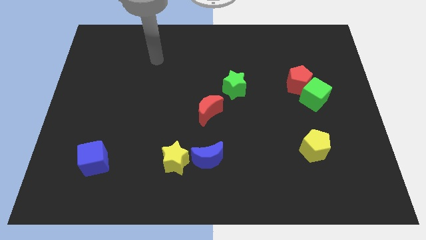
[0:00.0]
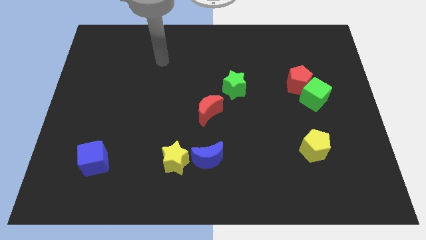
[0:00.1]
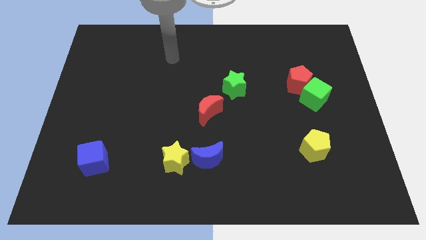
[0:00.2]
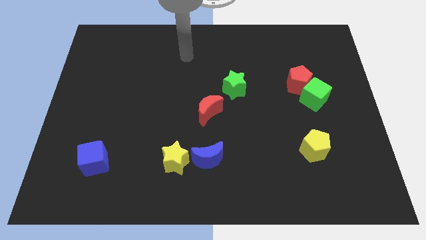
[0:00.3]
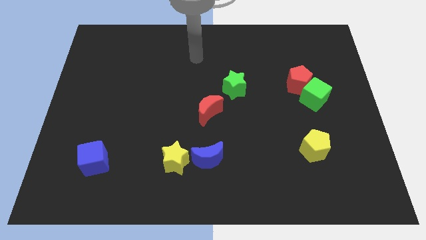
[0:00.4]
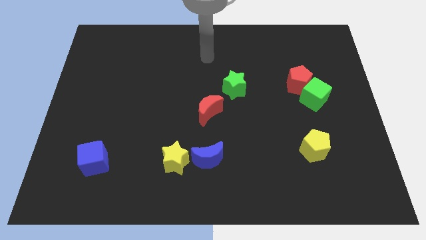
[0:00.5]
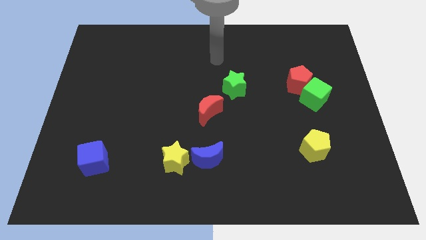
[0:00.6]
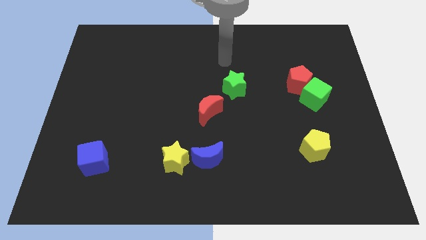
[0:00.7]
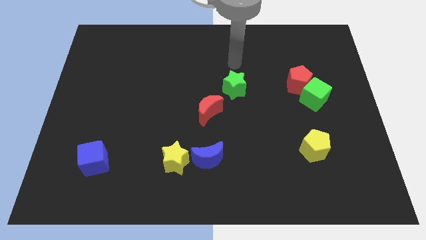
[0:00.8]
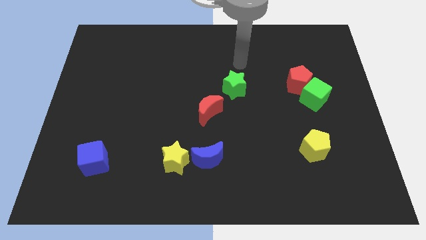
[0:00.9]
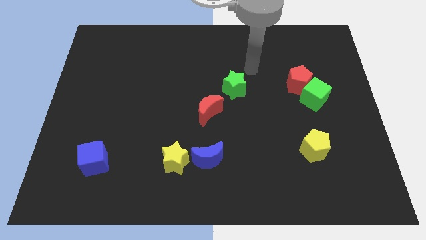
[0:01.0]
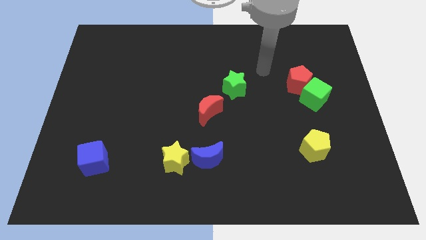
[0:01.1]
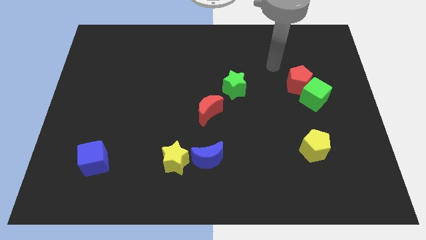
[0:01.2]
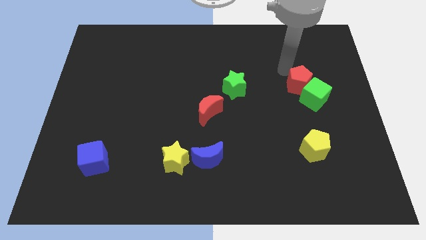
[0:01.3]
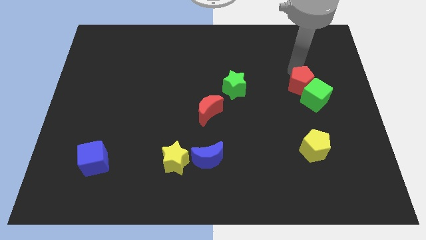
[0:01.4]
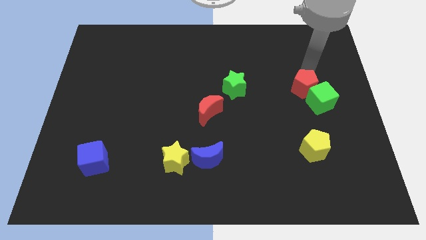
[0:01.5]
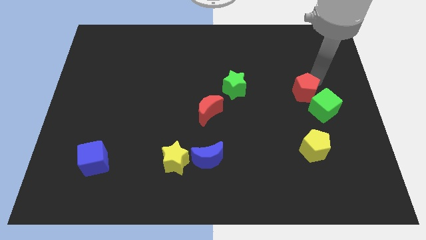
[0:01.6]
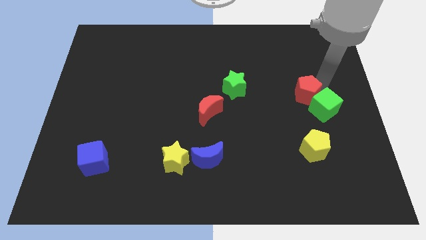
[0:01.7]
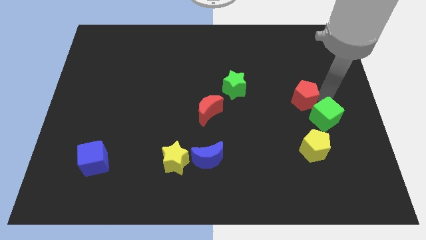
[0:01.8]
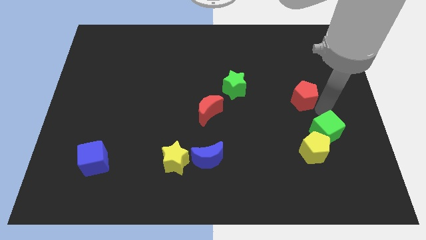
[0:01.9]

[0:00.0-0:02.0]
move the red pentagon away from the green cube

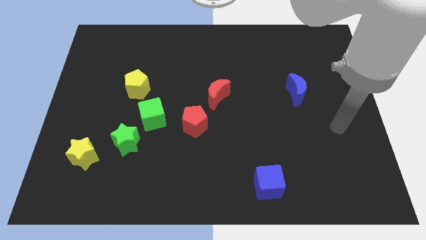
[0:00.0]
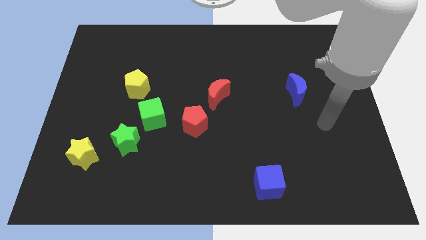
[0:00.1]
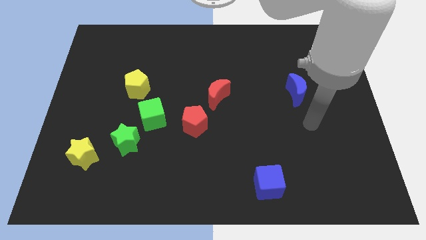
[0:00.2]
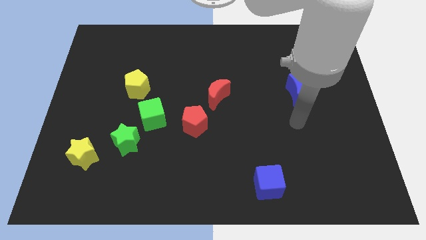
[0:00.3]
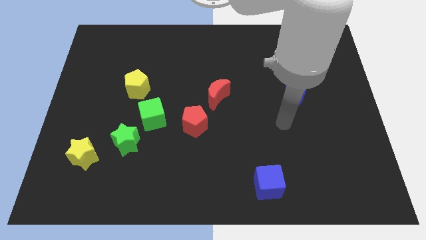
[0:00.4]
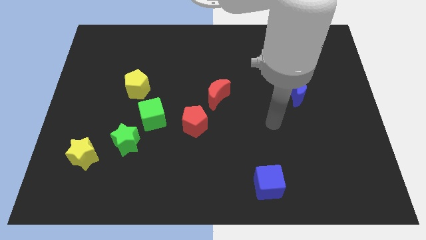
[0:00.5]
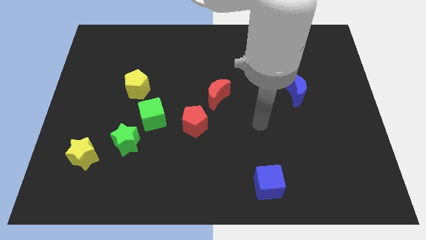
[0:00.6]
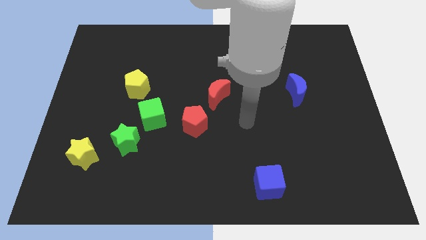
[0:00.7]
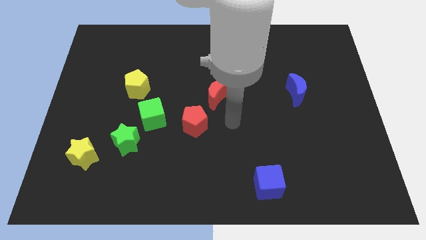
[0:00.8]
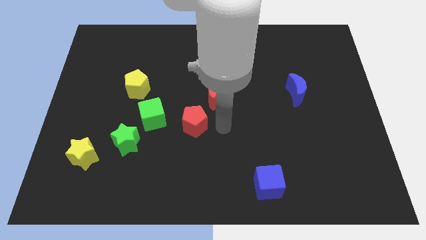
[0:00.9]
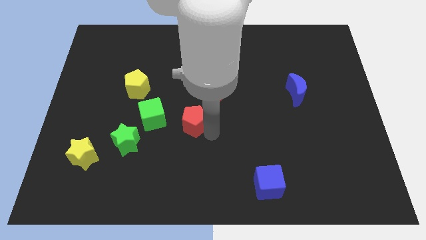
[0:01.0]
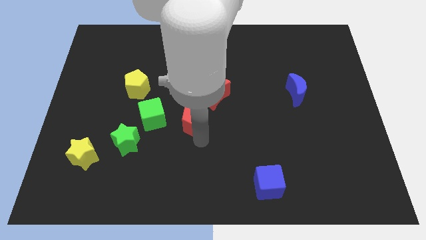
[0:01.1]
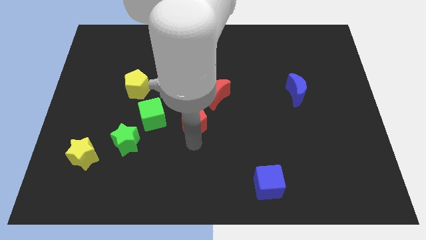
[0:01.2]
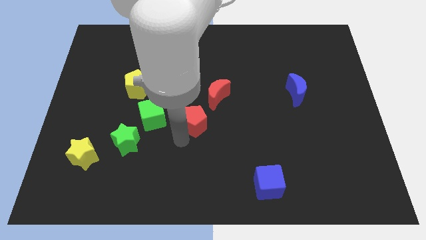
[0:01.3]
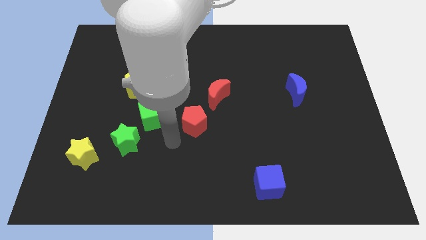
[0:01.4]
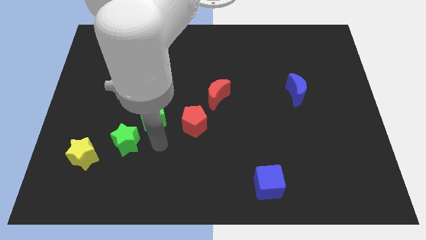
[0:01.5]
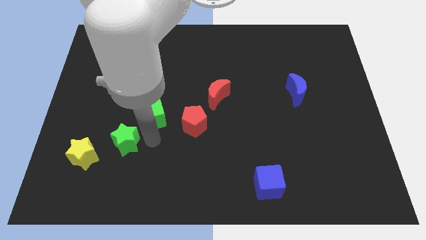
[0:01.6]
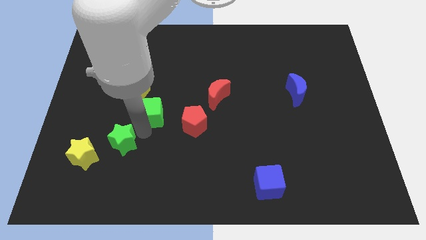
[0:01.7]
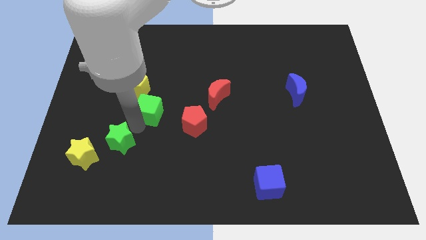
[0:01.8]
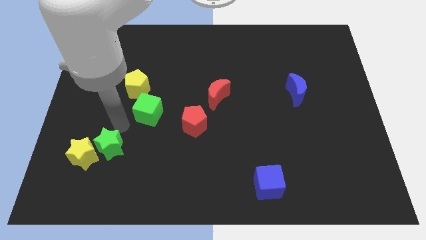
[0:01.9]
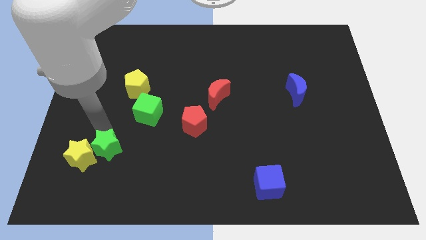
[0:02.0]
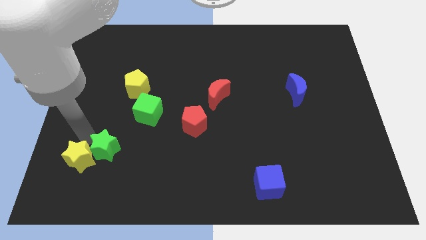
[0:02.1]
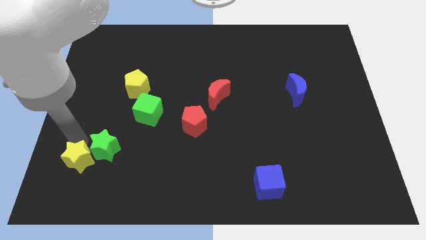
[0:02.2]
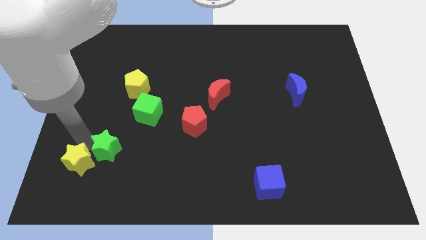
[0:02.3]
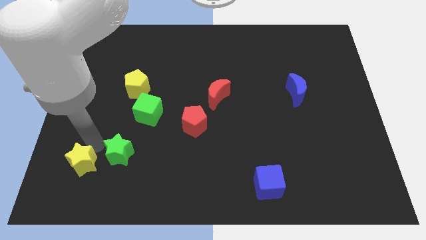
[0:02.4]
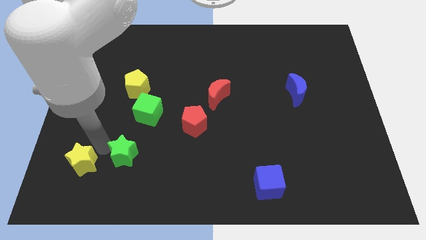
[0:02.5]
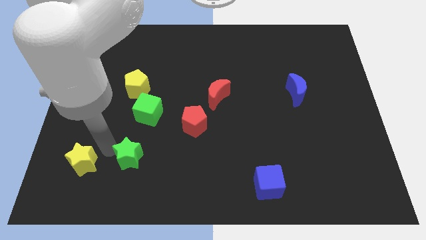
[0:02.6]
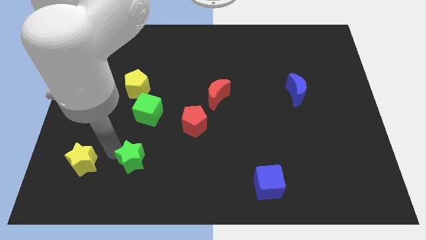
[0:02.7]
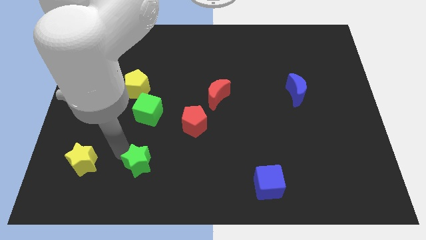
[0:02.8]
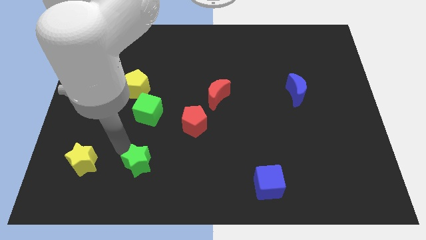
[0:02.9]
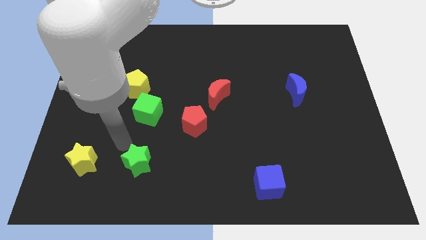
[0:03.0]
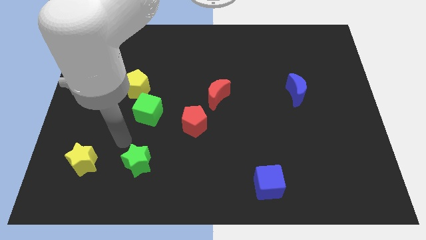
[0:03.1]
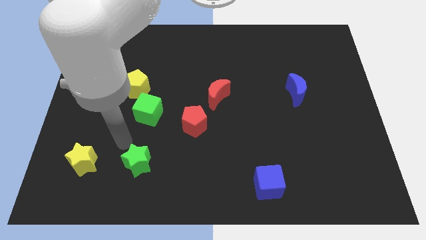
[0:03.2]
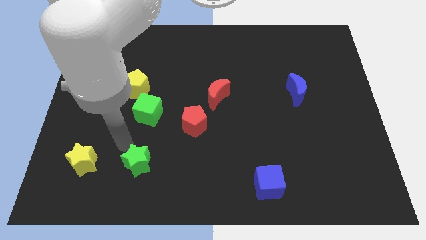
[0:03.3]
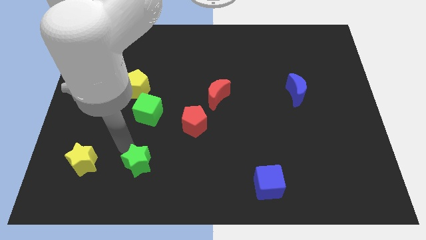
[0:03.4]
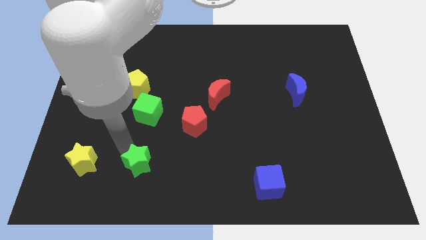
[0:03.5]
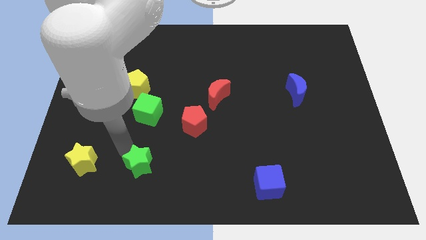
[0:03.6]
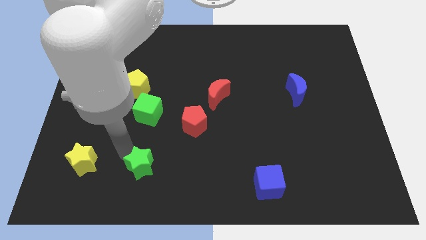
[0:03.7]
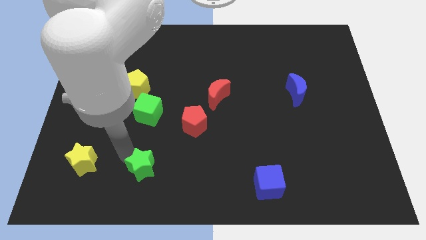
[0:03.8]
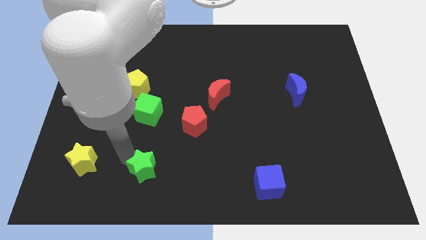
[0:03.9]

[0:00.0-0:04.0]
pull the green star apart from the green cube and yellow star

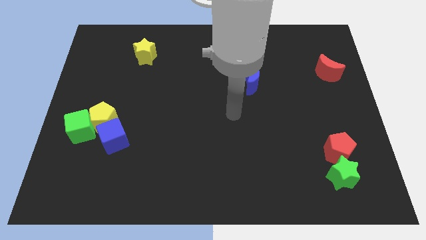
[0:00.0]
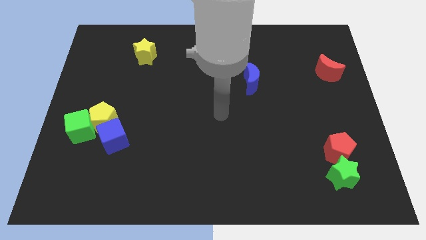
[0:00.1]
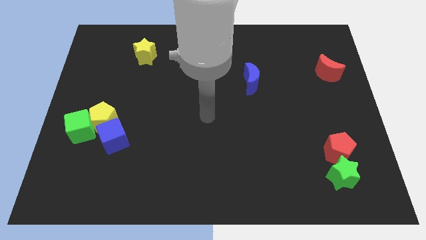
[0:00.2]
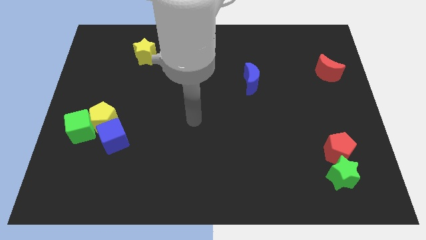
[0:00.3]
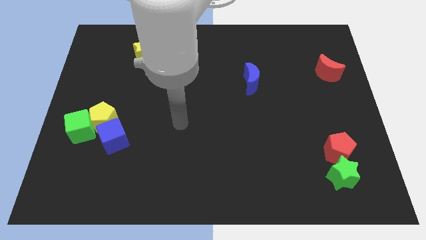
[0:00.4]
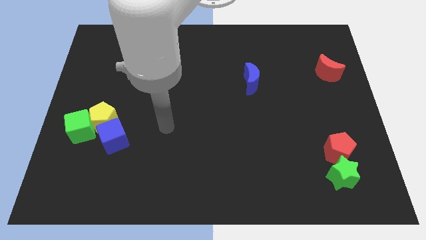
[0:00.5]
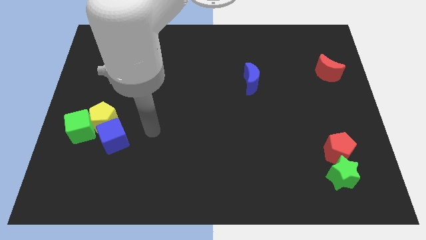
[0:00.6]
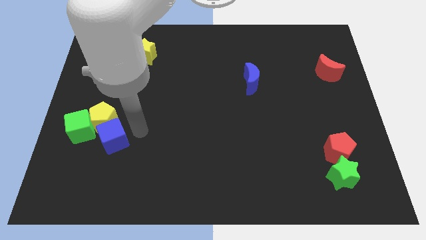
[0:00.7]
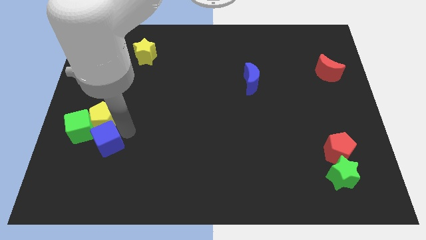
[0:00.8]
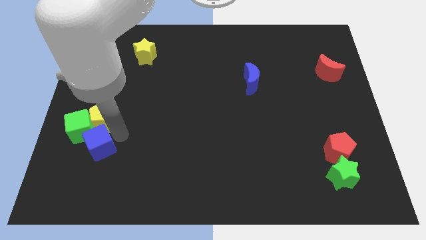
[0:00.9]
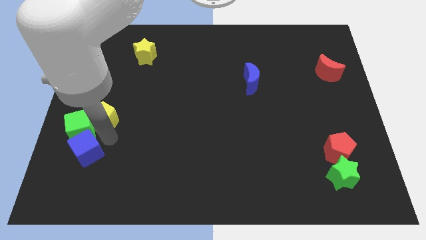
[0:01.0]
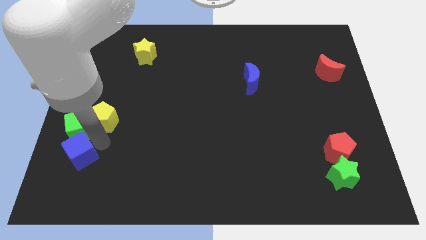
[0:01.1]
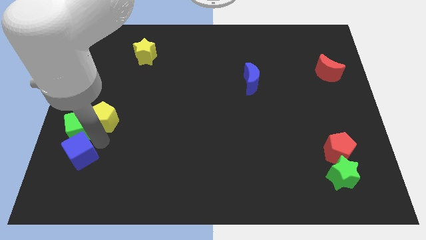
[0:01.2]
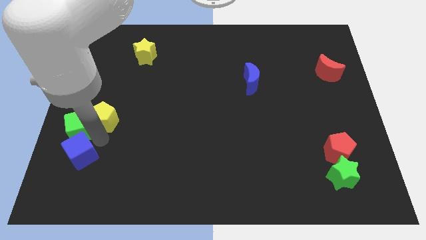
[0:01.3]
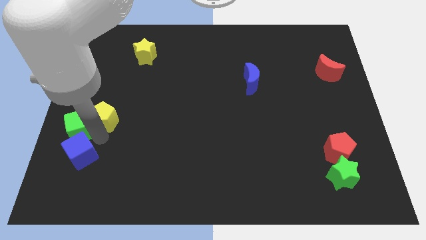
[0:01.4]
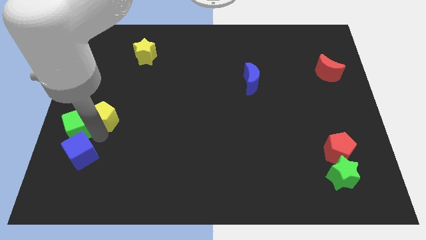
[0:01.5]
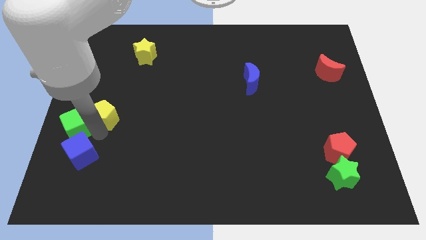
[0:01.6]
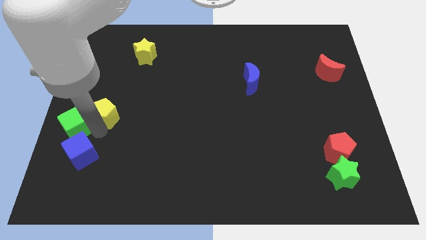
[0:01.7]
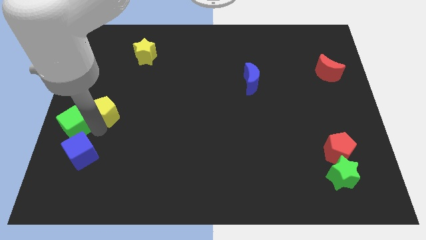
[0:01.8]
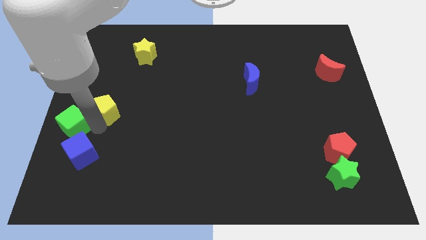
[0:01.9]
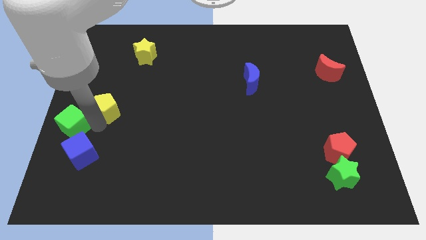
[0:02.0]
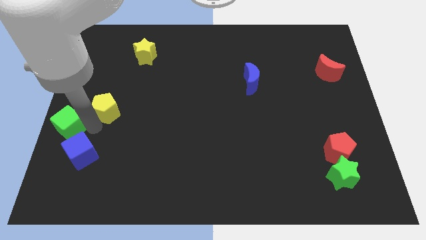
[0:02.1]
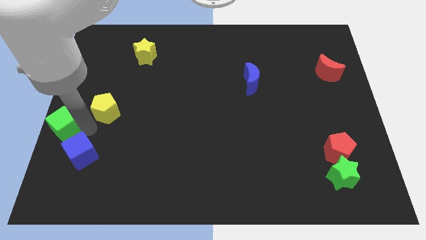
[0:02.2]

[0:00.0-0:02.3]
separate the yellow pentagon from the green cube and blue cube

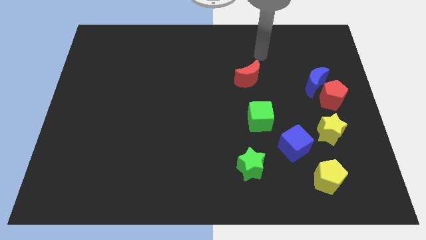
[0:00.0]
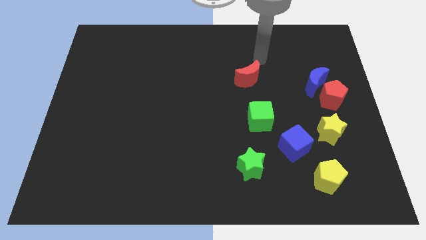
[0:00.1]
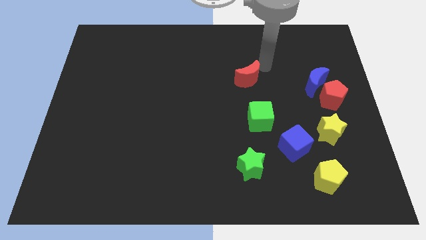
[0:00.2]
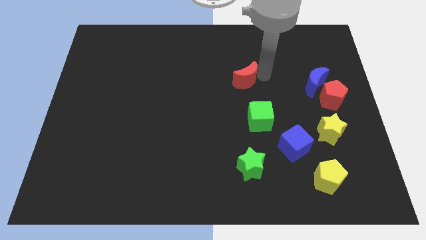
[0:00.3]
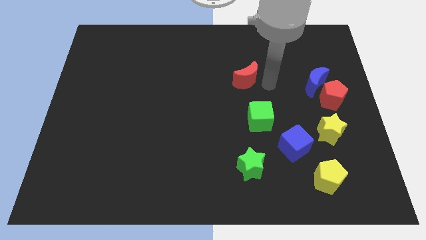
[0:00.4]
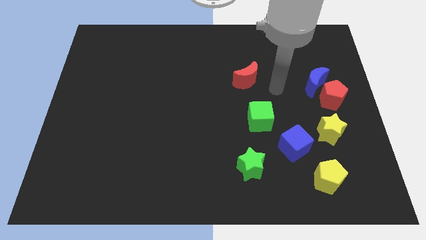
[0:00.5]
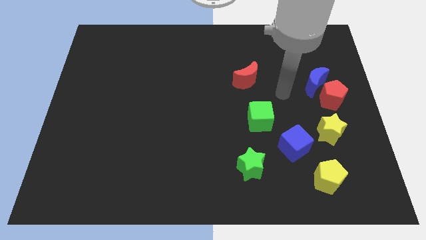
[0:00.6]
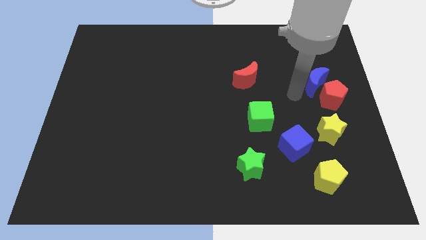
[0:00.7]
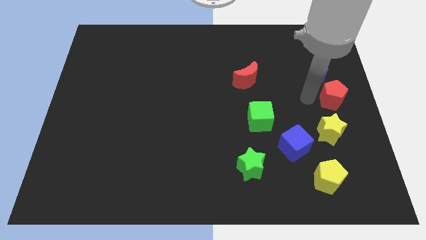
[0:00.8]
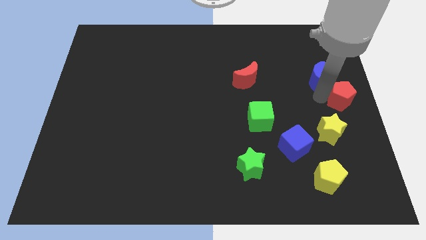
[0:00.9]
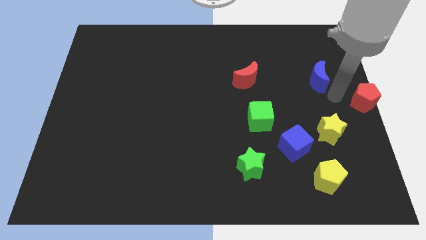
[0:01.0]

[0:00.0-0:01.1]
separate the blue moon from the red pentagon
